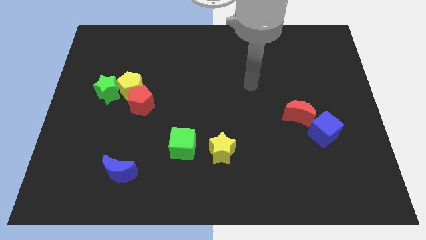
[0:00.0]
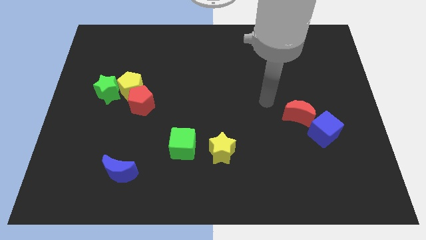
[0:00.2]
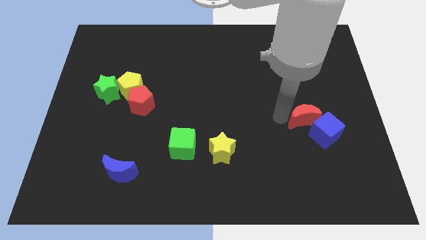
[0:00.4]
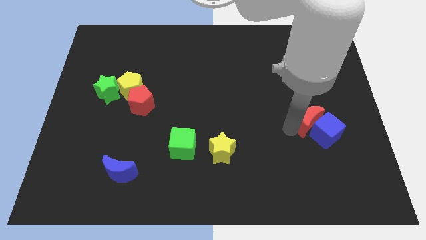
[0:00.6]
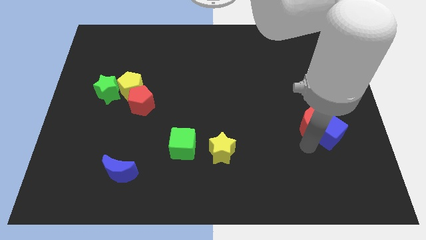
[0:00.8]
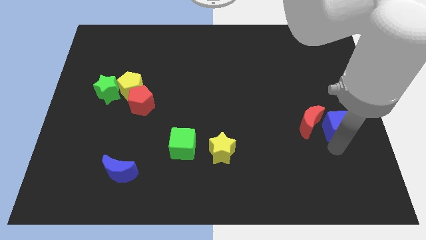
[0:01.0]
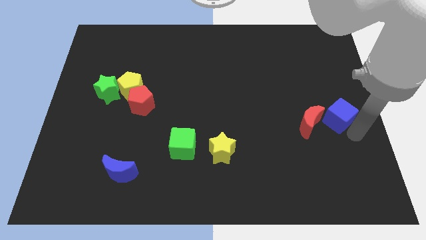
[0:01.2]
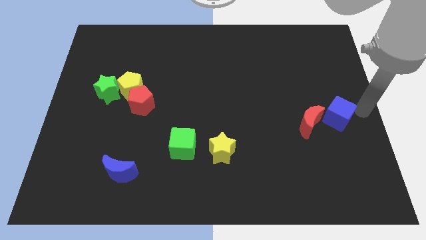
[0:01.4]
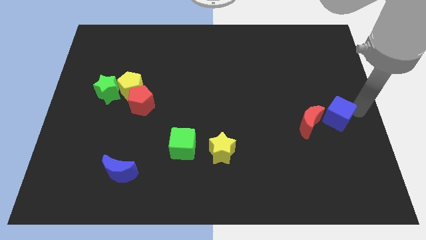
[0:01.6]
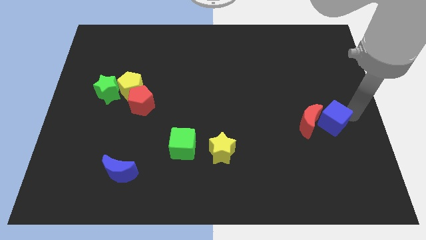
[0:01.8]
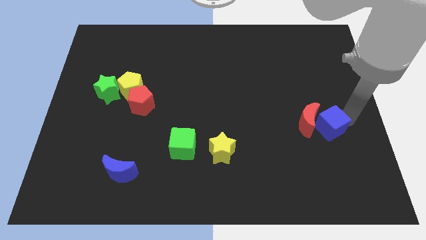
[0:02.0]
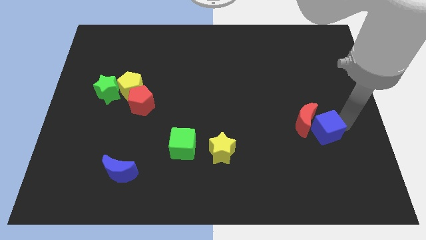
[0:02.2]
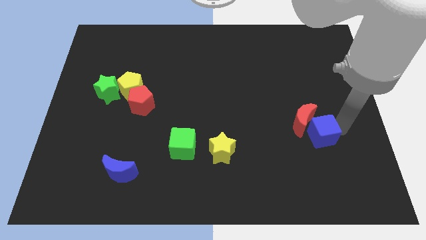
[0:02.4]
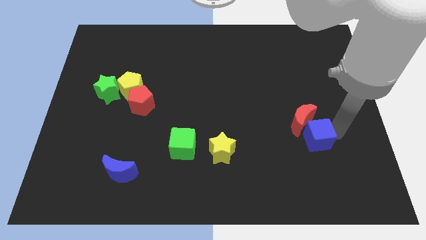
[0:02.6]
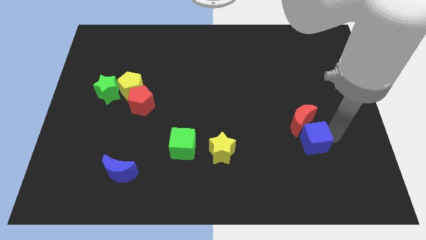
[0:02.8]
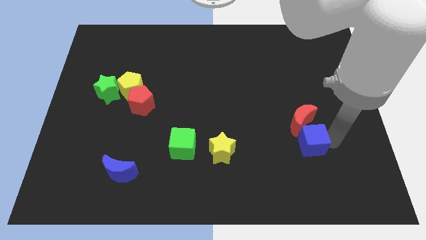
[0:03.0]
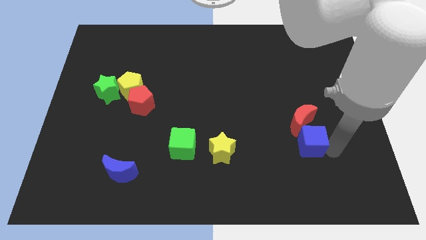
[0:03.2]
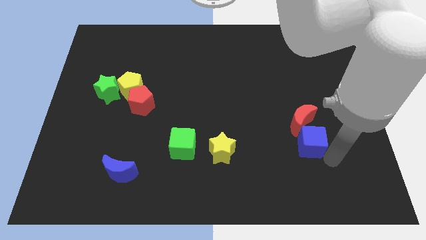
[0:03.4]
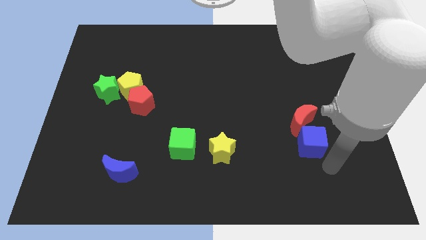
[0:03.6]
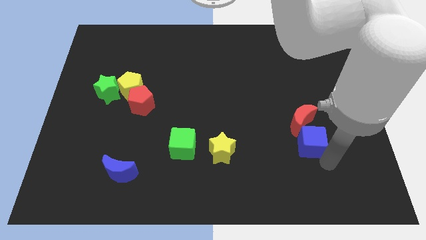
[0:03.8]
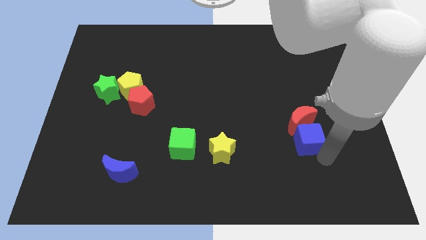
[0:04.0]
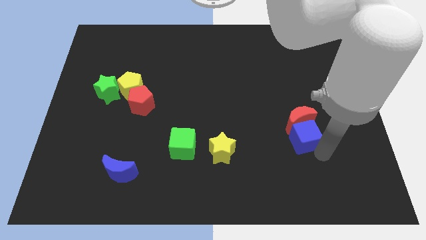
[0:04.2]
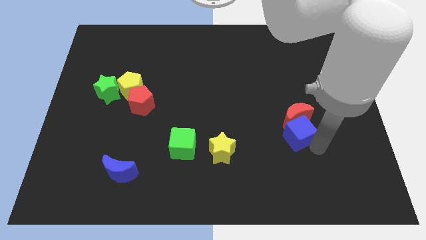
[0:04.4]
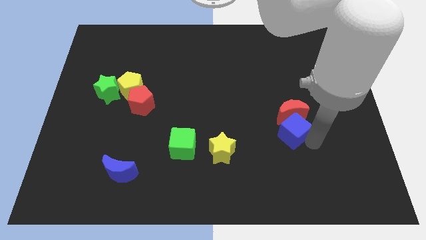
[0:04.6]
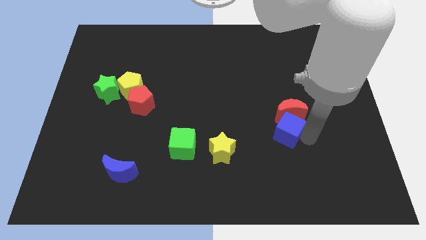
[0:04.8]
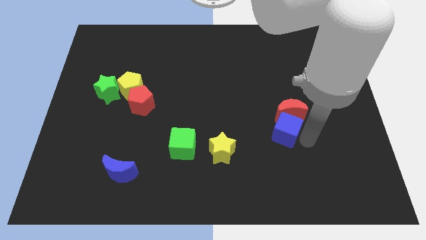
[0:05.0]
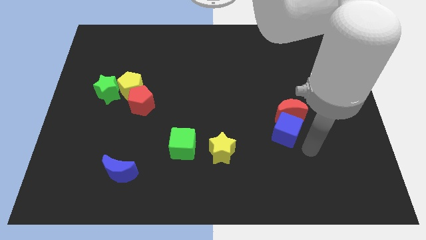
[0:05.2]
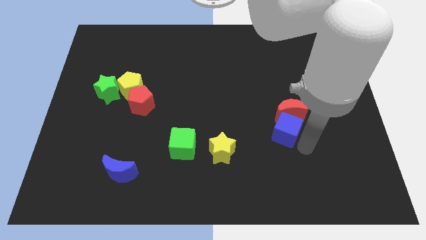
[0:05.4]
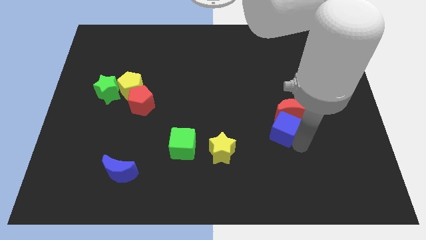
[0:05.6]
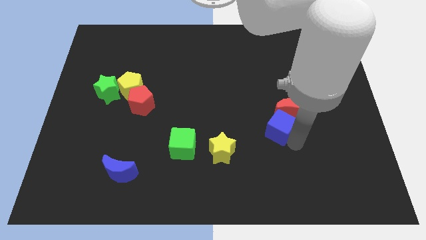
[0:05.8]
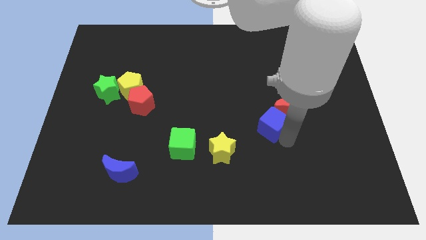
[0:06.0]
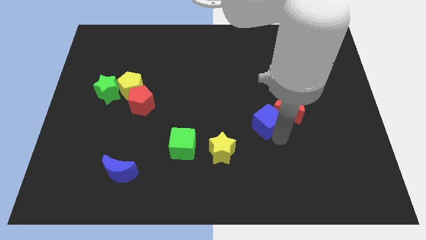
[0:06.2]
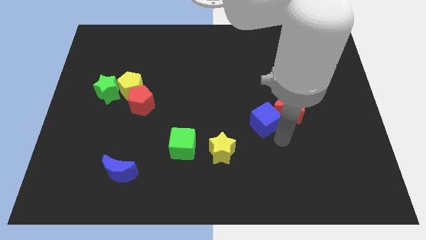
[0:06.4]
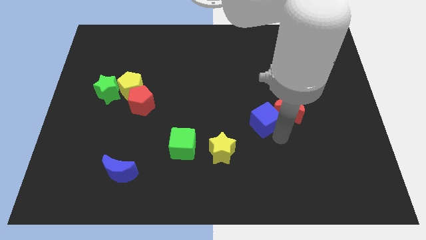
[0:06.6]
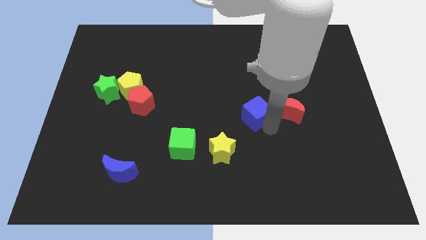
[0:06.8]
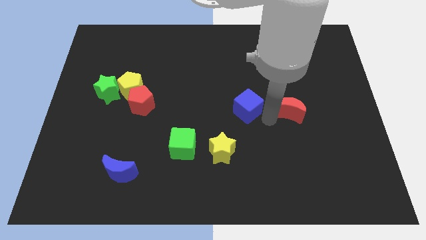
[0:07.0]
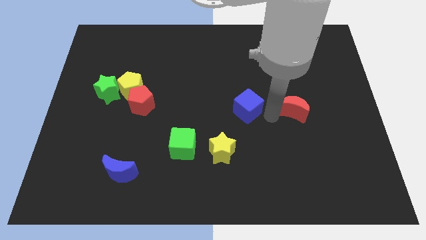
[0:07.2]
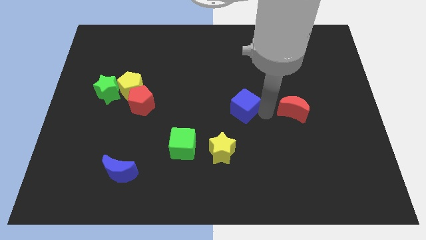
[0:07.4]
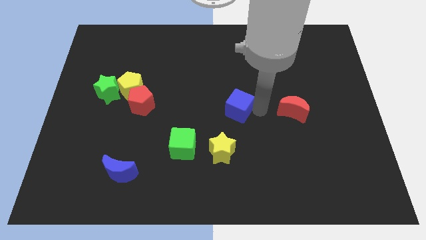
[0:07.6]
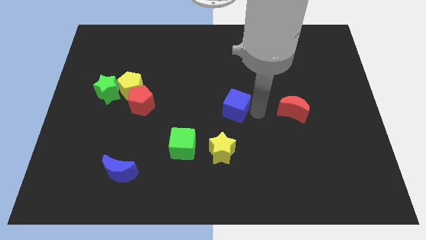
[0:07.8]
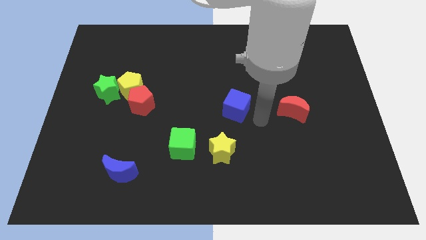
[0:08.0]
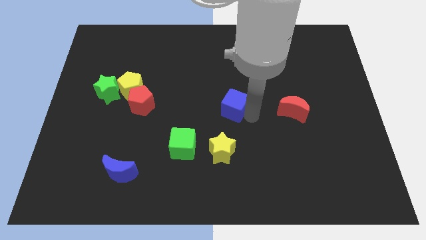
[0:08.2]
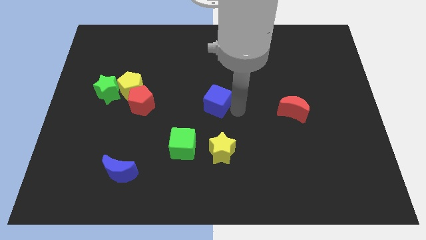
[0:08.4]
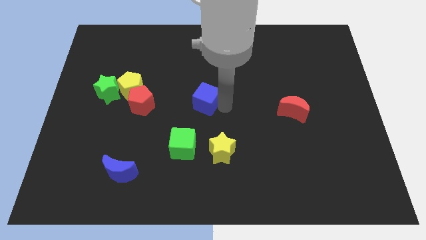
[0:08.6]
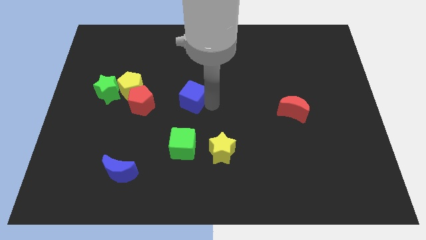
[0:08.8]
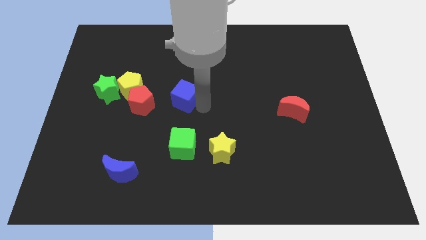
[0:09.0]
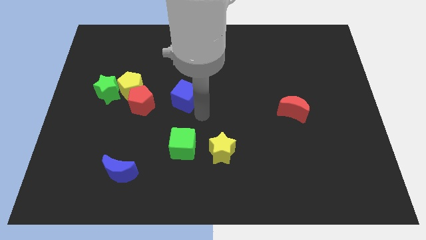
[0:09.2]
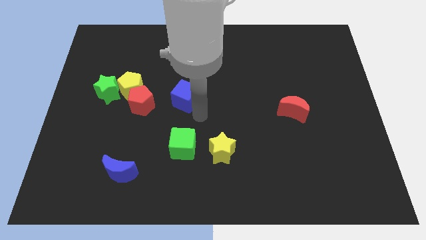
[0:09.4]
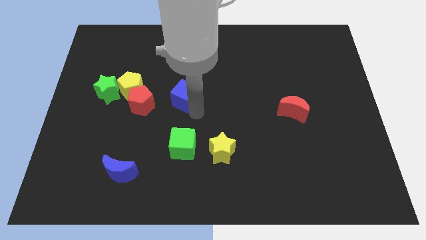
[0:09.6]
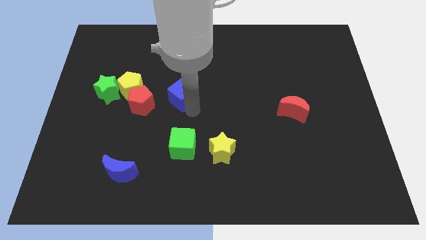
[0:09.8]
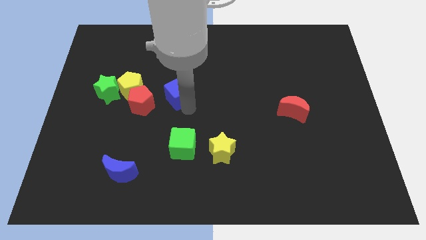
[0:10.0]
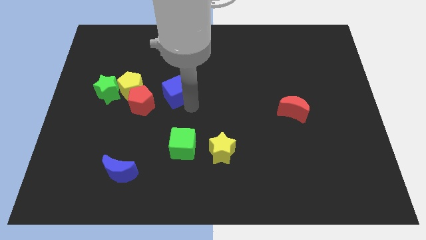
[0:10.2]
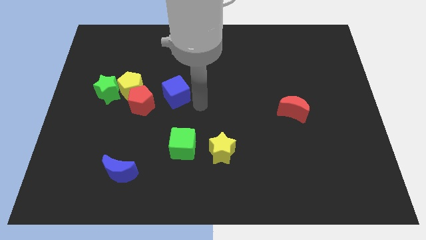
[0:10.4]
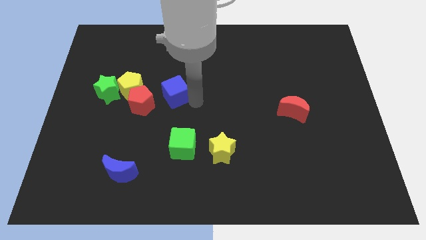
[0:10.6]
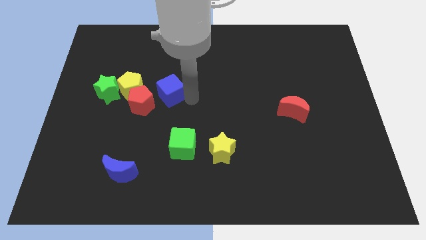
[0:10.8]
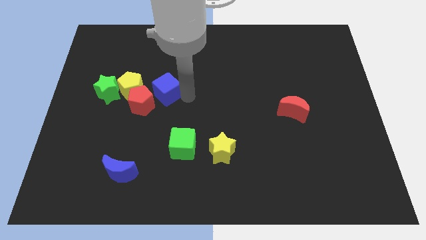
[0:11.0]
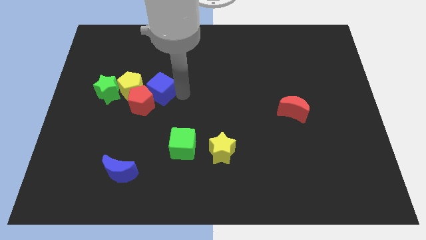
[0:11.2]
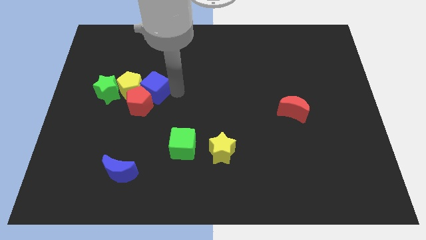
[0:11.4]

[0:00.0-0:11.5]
put the blue cube to the yellow pentagon
